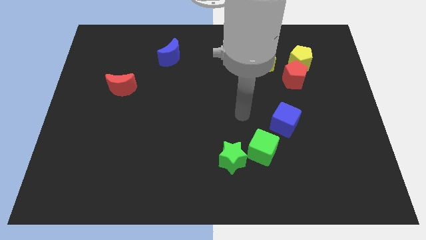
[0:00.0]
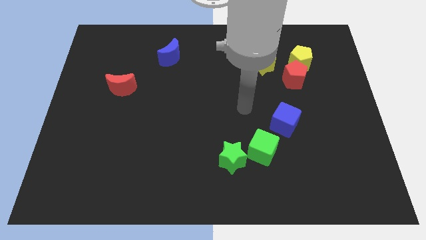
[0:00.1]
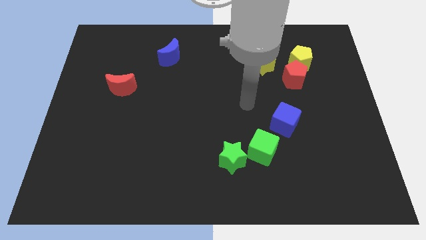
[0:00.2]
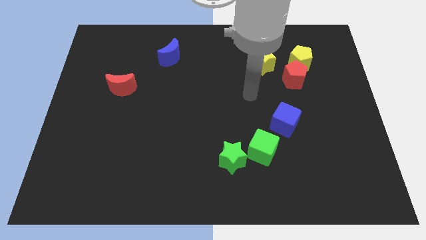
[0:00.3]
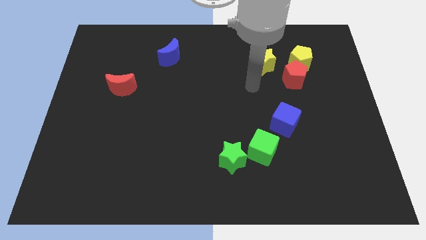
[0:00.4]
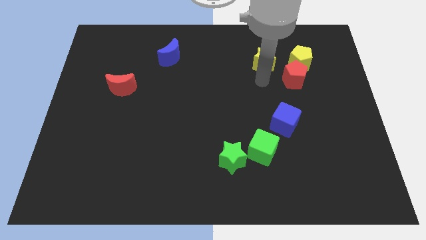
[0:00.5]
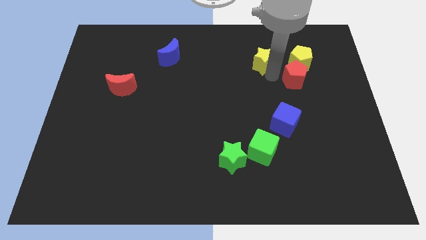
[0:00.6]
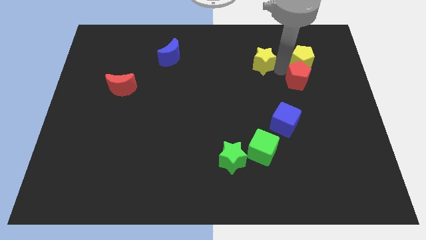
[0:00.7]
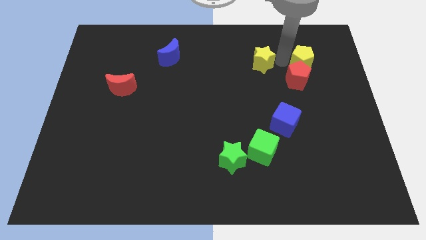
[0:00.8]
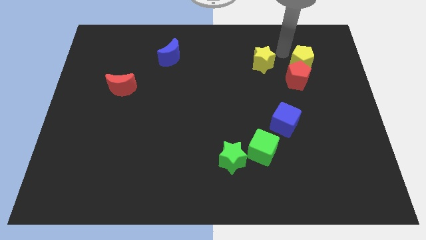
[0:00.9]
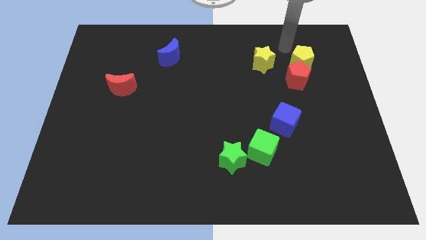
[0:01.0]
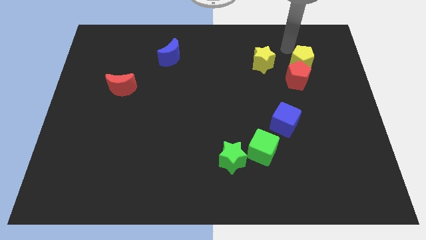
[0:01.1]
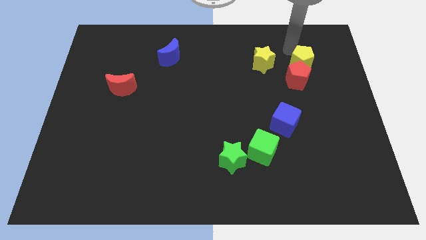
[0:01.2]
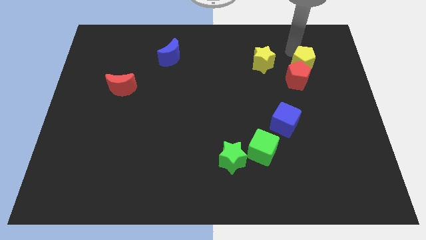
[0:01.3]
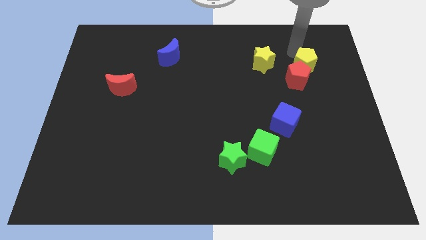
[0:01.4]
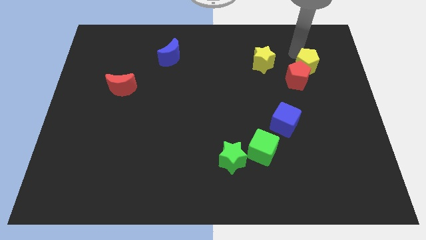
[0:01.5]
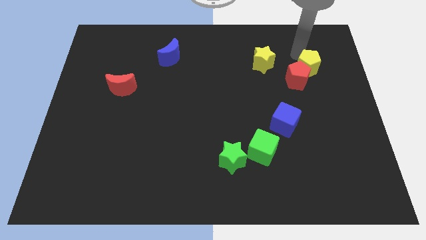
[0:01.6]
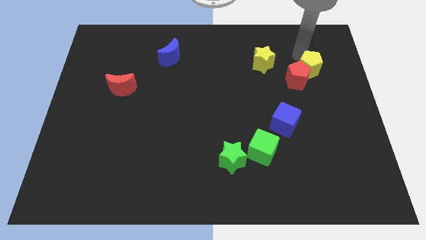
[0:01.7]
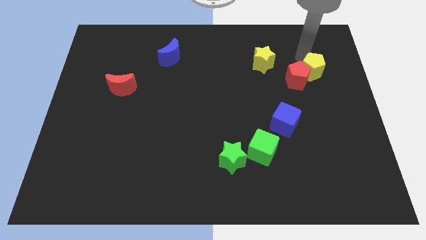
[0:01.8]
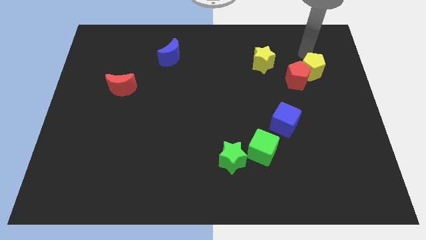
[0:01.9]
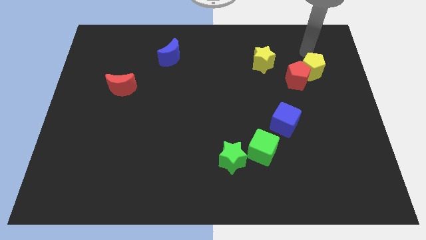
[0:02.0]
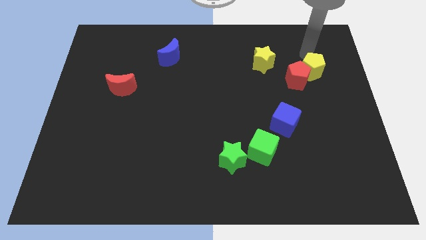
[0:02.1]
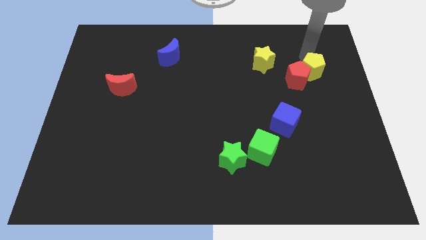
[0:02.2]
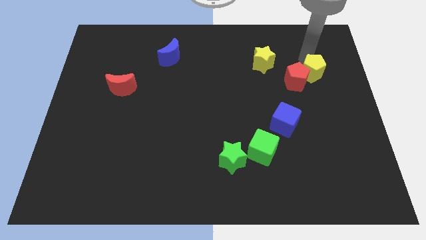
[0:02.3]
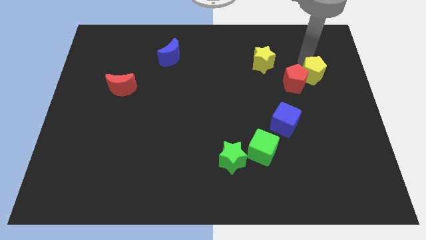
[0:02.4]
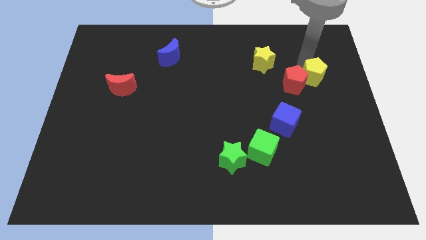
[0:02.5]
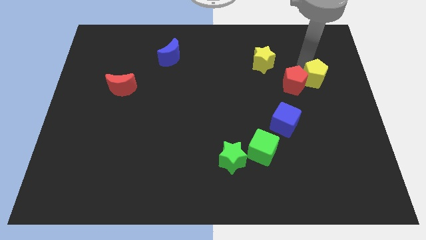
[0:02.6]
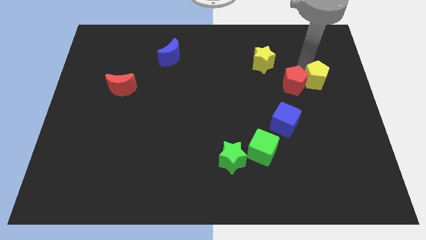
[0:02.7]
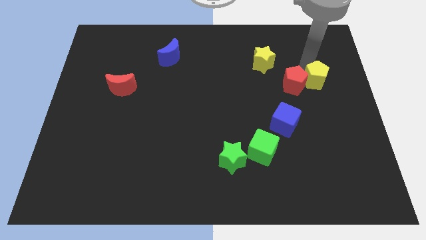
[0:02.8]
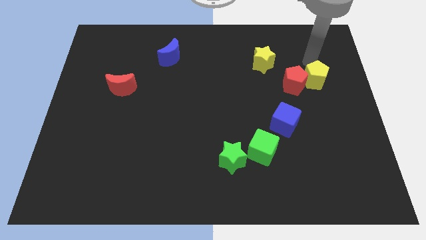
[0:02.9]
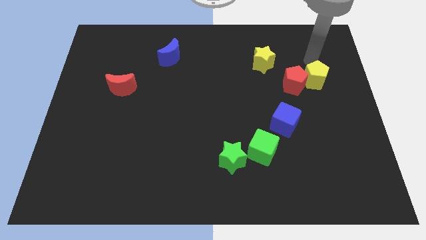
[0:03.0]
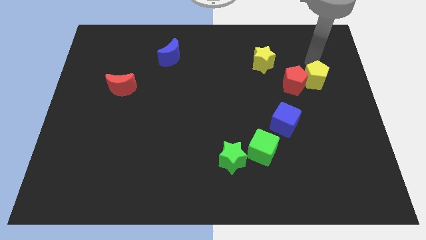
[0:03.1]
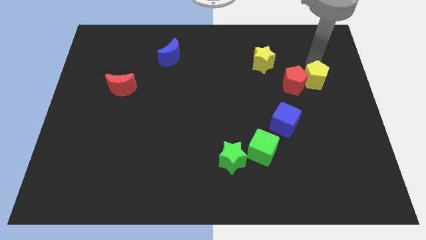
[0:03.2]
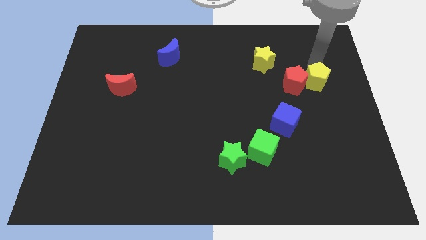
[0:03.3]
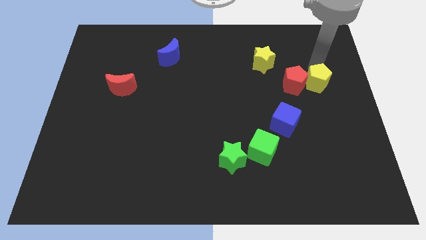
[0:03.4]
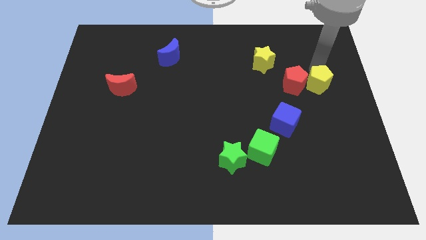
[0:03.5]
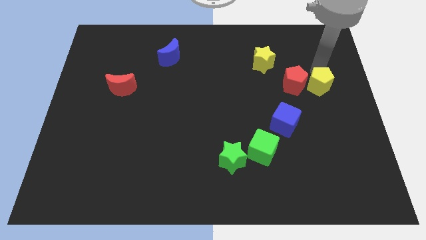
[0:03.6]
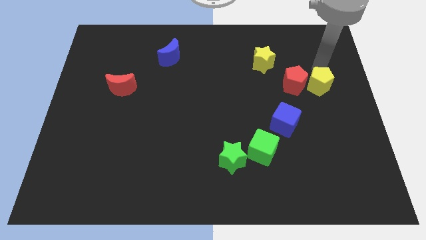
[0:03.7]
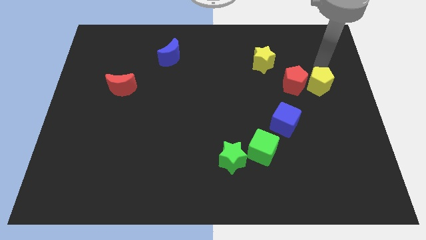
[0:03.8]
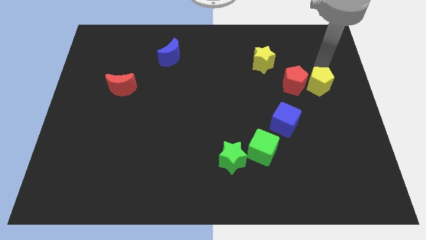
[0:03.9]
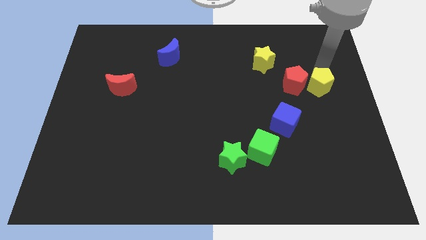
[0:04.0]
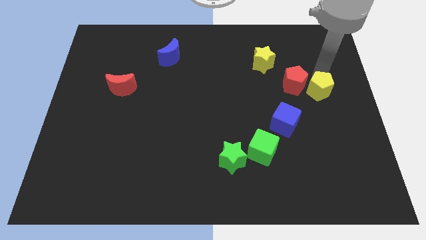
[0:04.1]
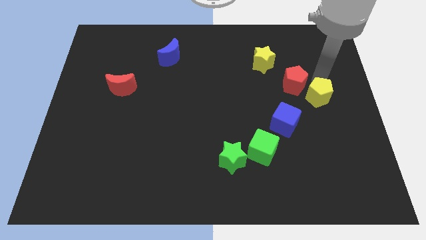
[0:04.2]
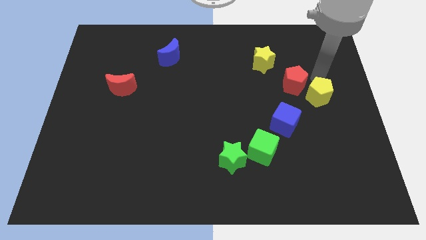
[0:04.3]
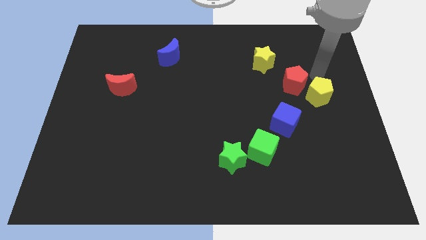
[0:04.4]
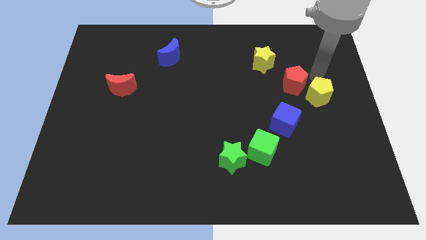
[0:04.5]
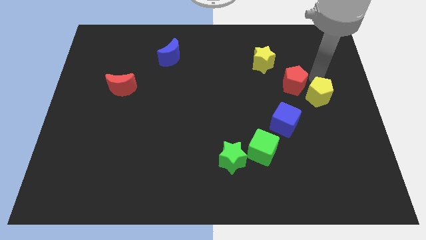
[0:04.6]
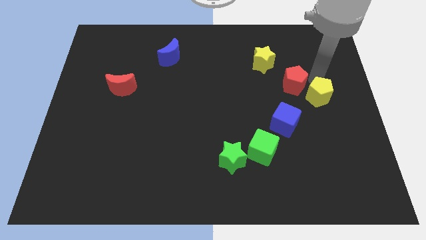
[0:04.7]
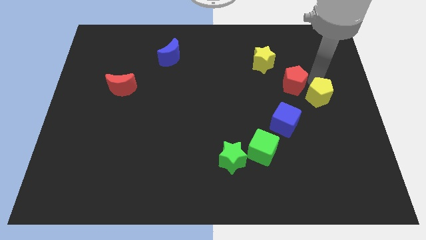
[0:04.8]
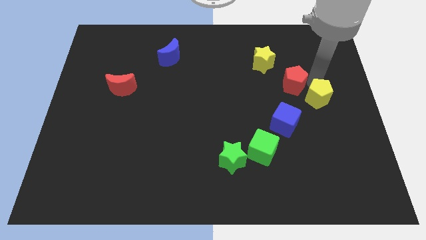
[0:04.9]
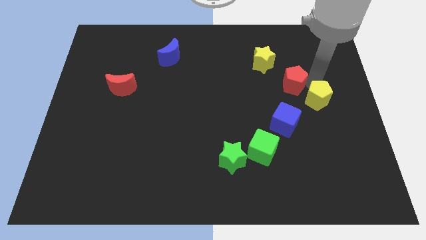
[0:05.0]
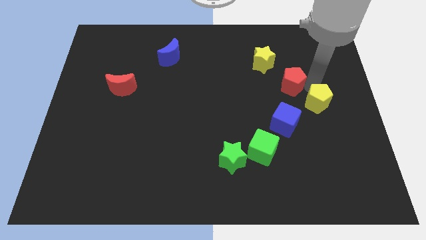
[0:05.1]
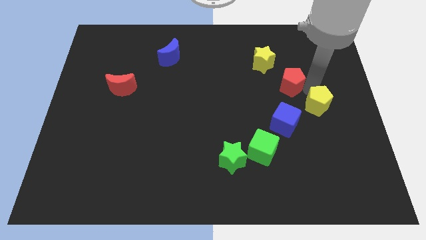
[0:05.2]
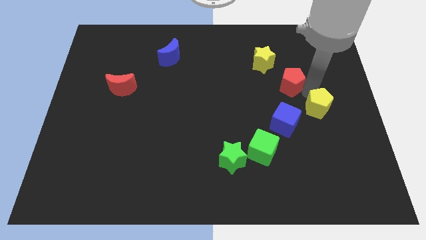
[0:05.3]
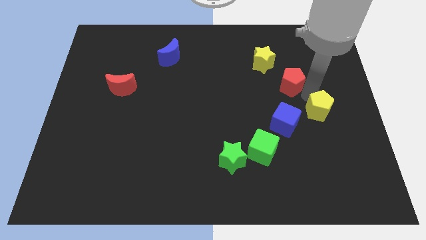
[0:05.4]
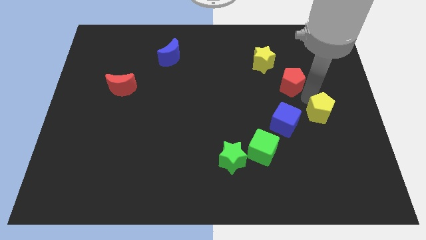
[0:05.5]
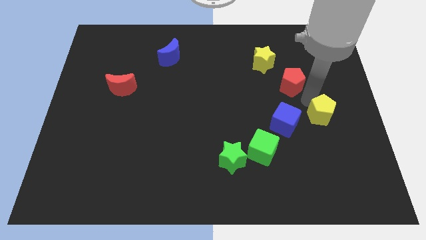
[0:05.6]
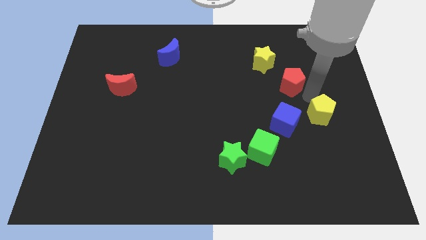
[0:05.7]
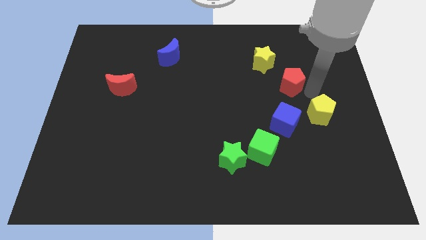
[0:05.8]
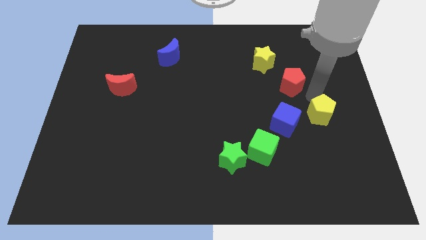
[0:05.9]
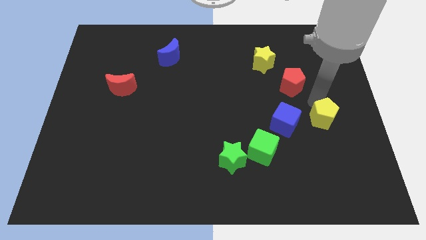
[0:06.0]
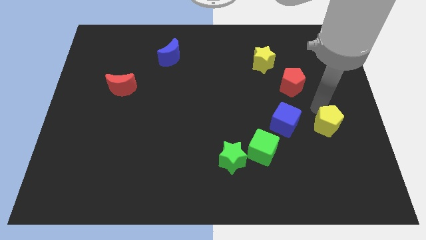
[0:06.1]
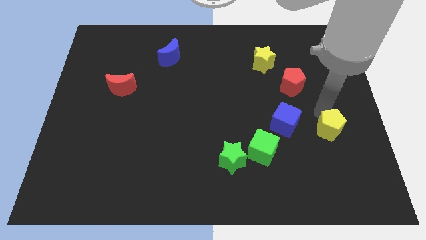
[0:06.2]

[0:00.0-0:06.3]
move the yellow pentagon downwards

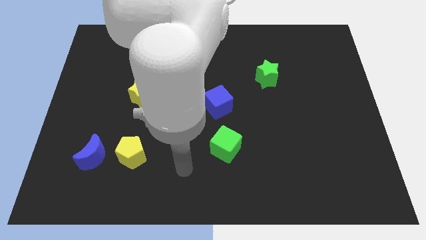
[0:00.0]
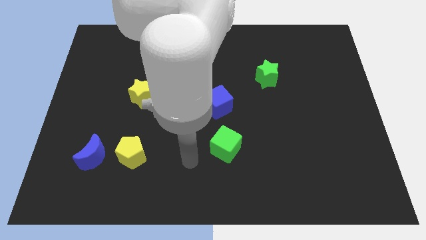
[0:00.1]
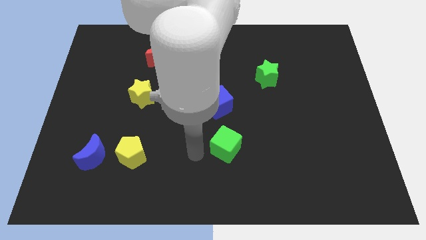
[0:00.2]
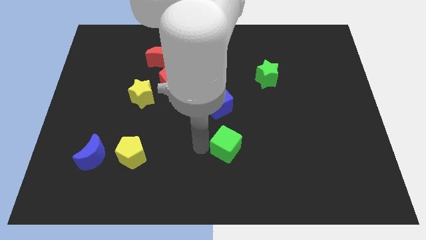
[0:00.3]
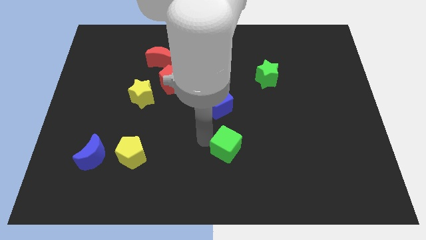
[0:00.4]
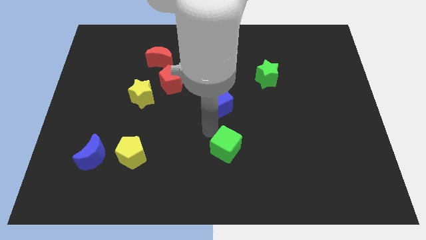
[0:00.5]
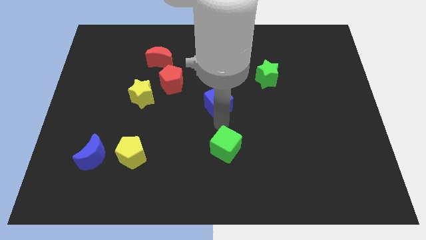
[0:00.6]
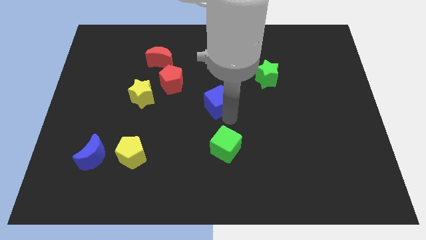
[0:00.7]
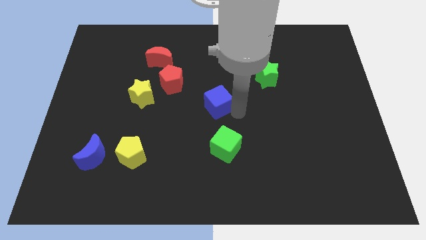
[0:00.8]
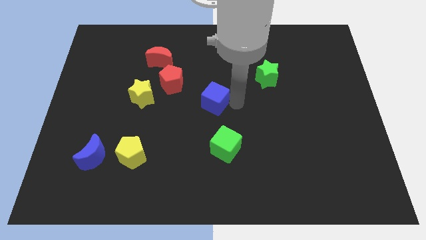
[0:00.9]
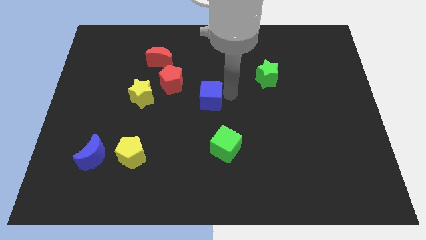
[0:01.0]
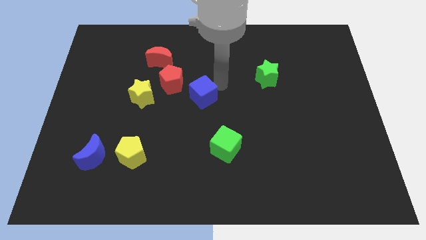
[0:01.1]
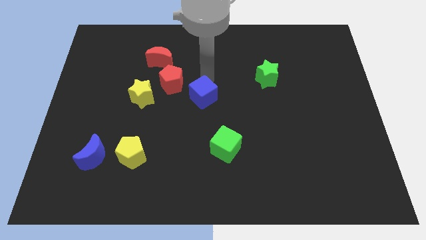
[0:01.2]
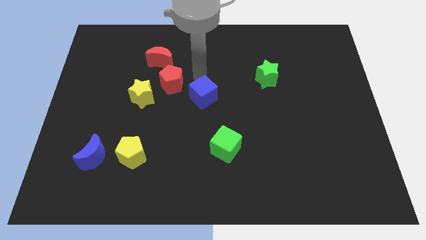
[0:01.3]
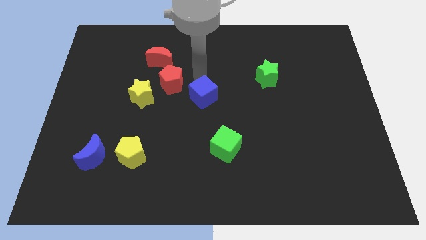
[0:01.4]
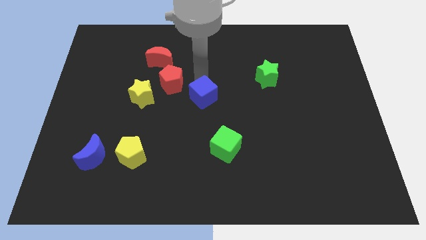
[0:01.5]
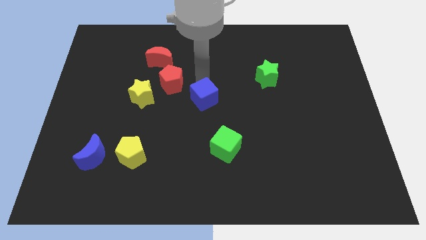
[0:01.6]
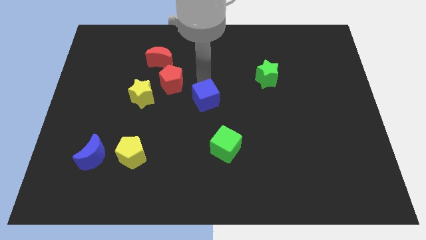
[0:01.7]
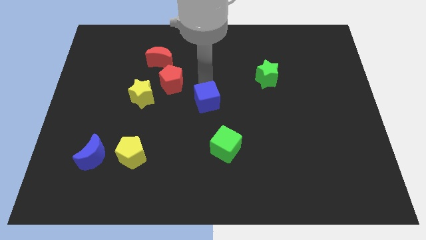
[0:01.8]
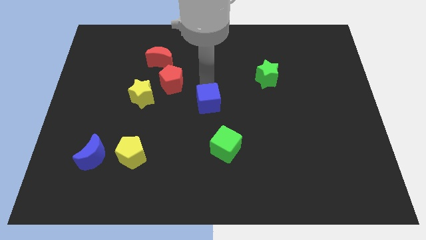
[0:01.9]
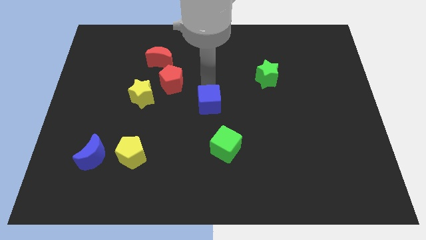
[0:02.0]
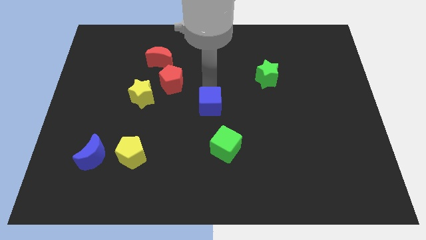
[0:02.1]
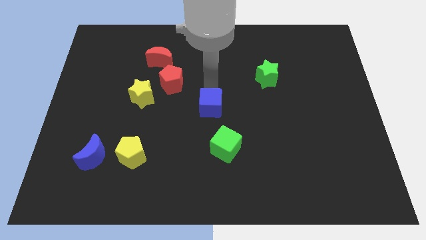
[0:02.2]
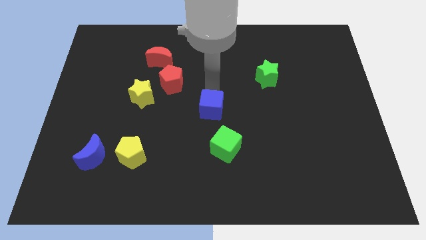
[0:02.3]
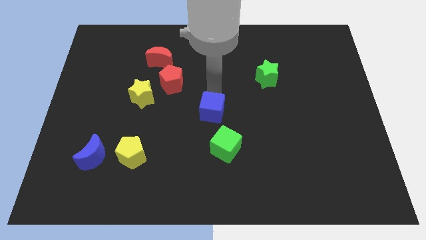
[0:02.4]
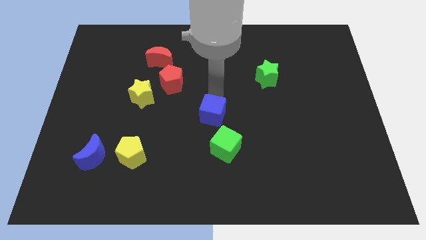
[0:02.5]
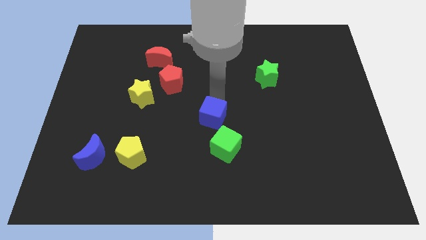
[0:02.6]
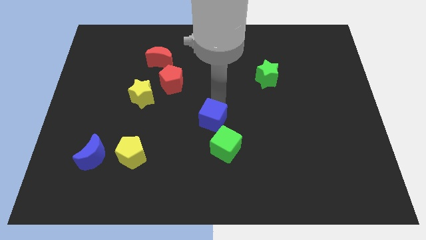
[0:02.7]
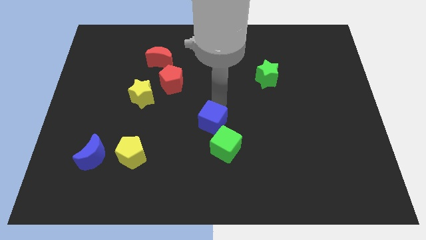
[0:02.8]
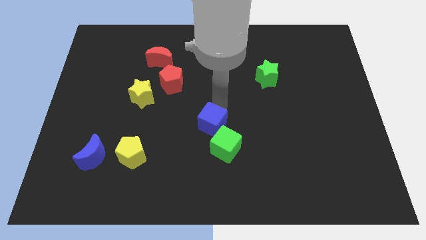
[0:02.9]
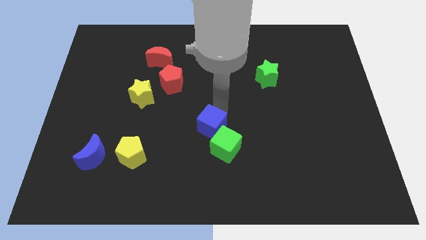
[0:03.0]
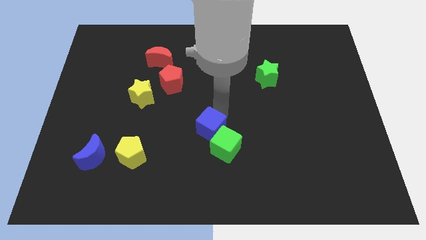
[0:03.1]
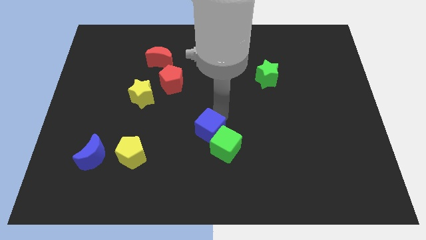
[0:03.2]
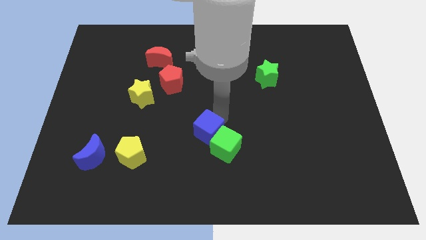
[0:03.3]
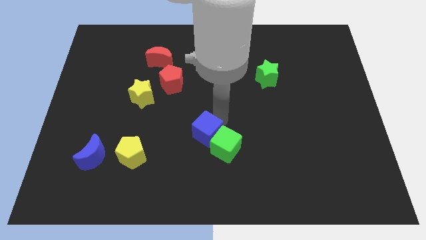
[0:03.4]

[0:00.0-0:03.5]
slightly slide the blue cube downwards and then left
